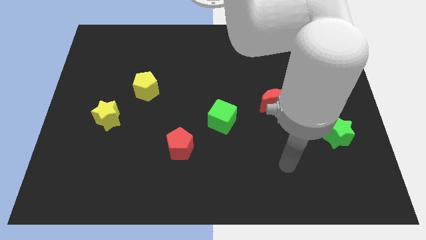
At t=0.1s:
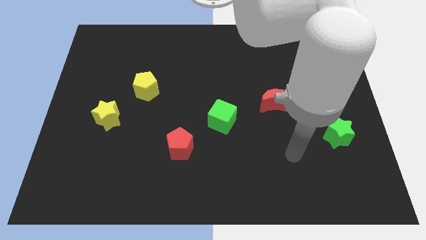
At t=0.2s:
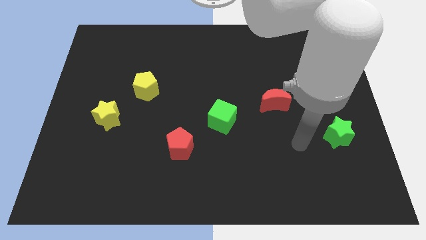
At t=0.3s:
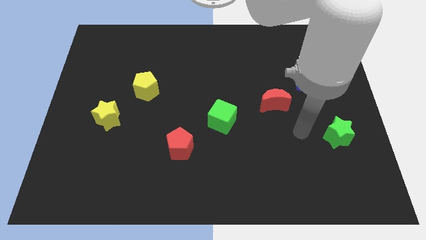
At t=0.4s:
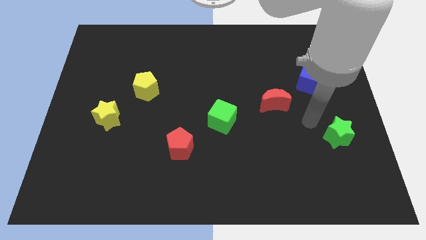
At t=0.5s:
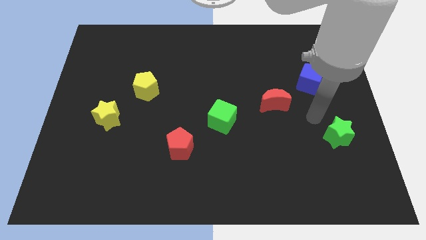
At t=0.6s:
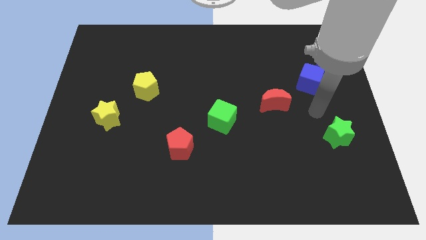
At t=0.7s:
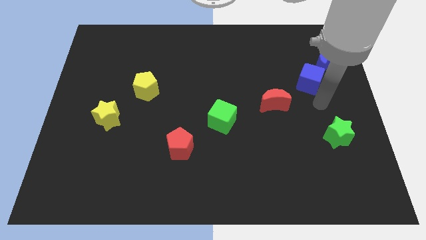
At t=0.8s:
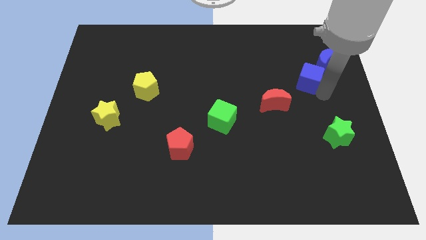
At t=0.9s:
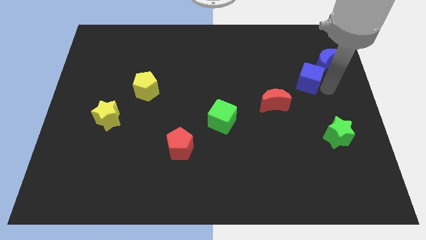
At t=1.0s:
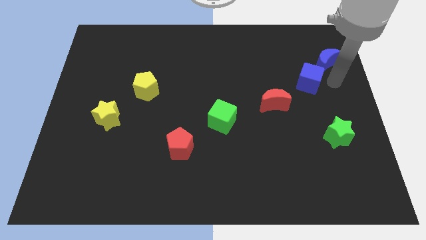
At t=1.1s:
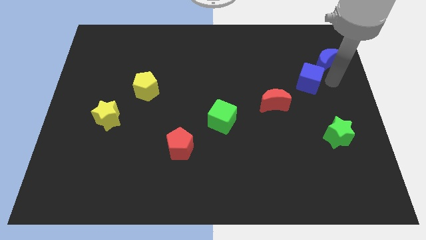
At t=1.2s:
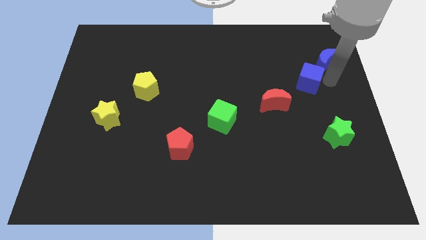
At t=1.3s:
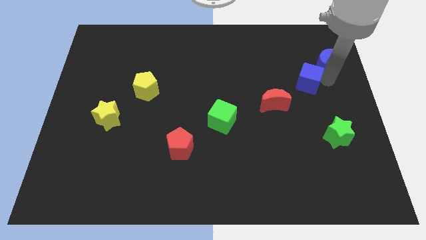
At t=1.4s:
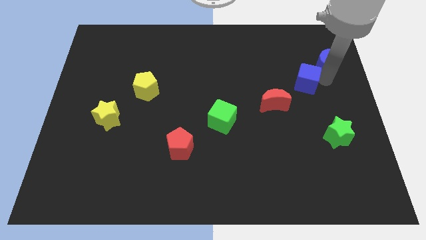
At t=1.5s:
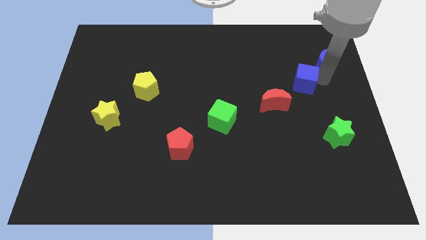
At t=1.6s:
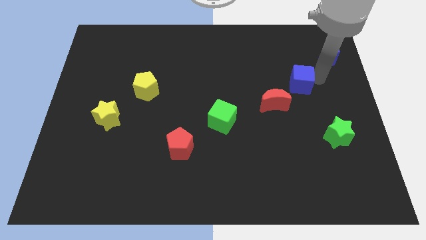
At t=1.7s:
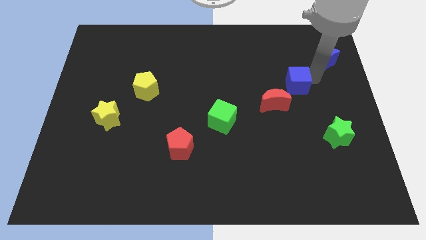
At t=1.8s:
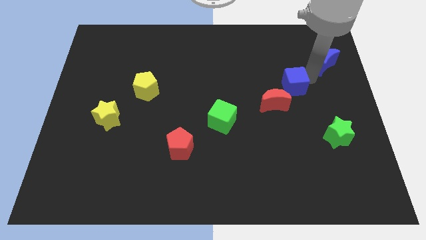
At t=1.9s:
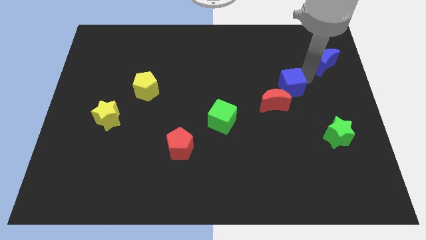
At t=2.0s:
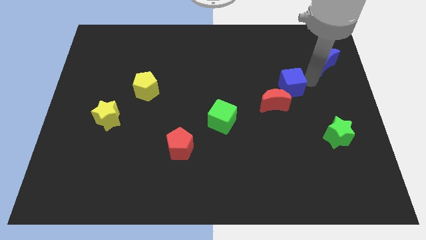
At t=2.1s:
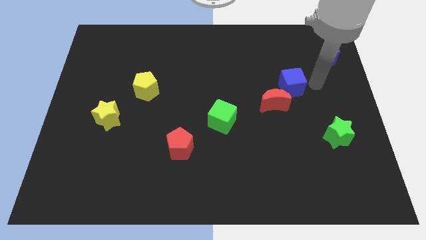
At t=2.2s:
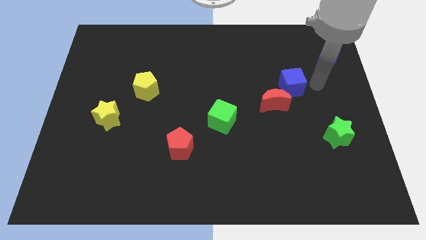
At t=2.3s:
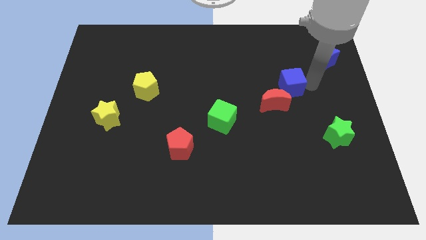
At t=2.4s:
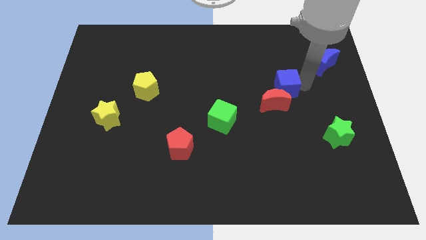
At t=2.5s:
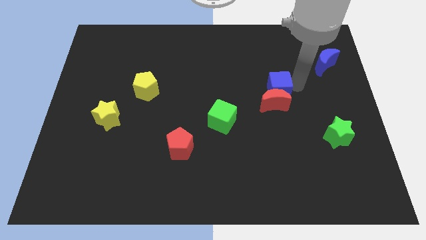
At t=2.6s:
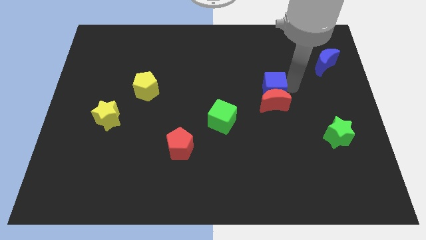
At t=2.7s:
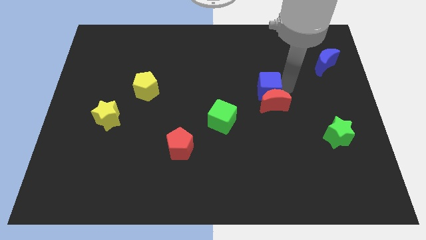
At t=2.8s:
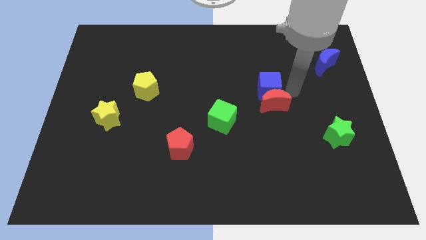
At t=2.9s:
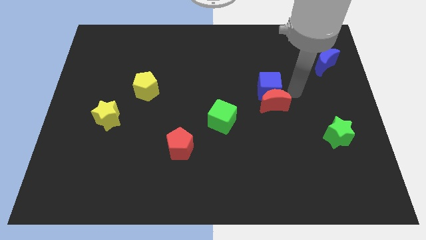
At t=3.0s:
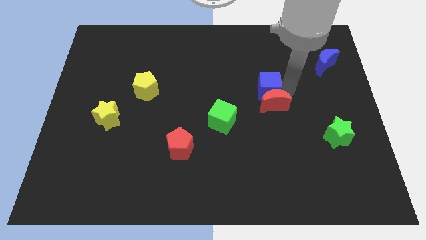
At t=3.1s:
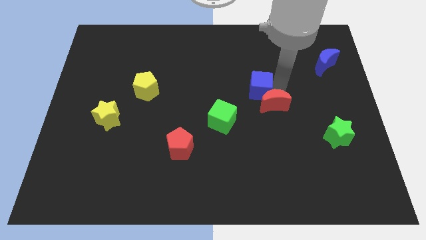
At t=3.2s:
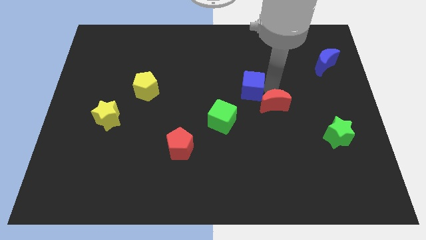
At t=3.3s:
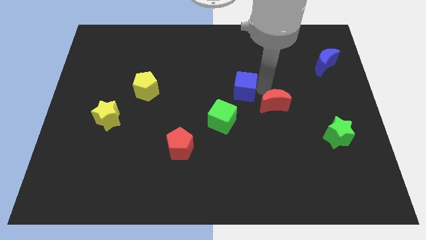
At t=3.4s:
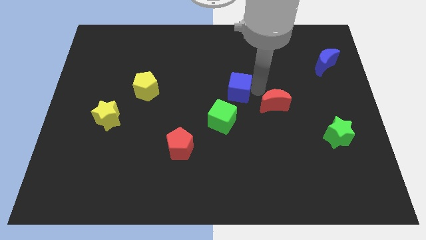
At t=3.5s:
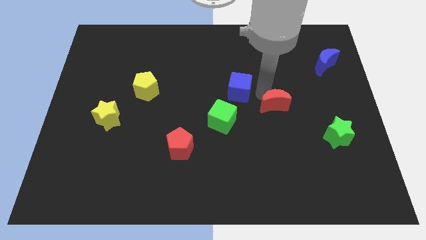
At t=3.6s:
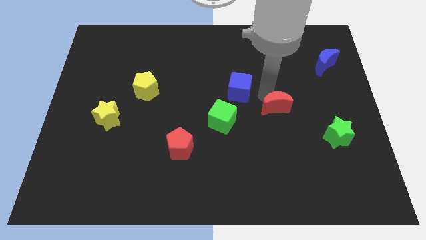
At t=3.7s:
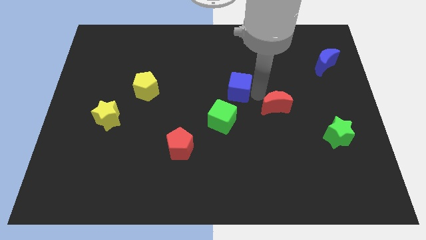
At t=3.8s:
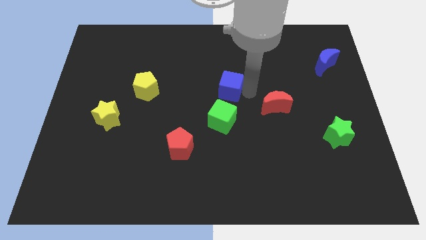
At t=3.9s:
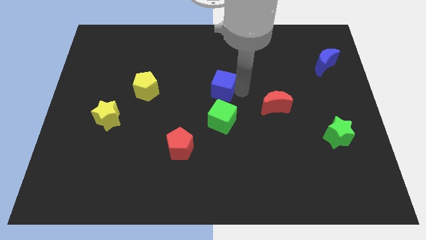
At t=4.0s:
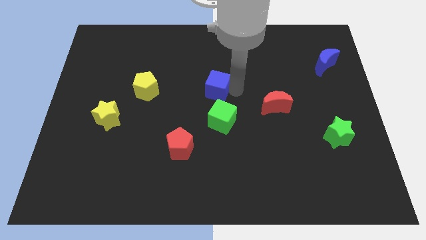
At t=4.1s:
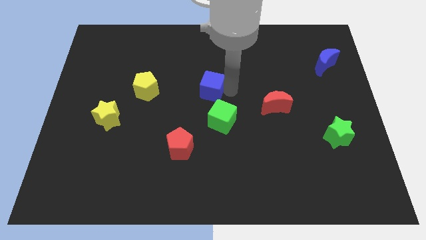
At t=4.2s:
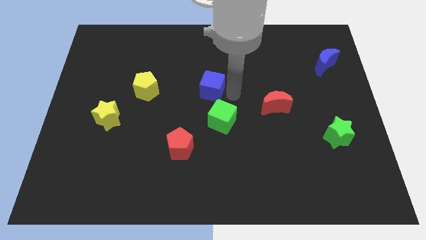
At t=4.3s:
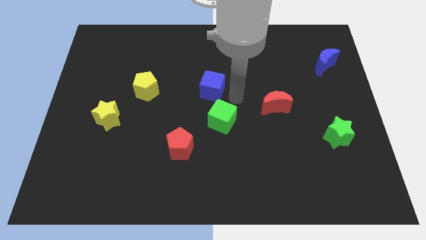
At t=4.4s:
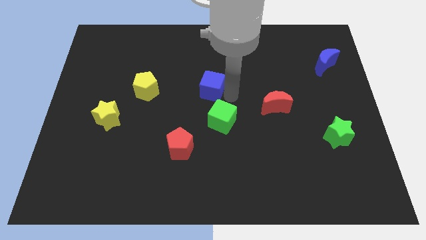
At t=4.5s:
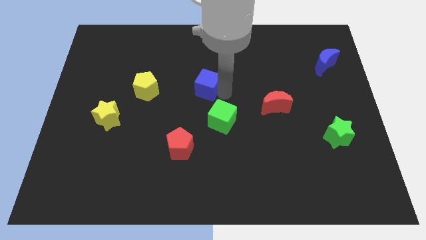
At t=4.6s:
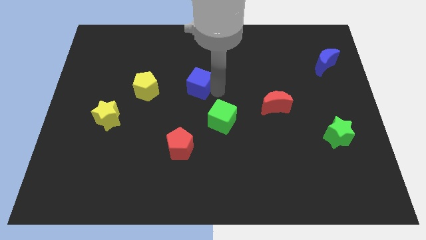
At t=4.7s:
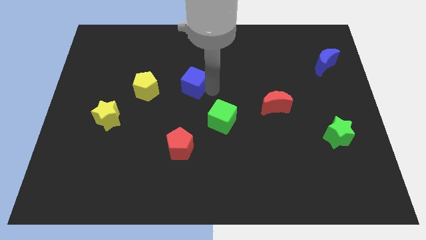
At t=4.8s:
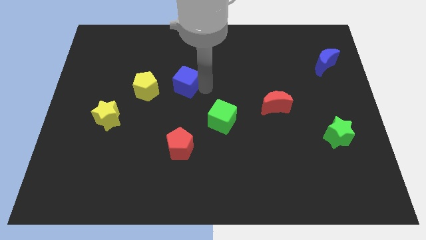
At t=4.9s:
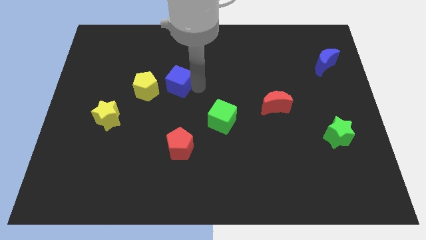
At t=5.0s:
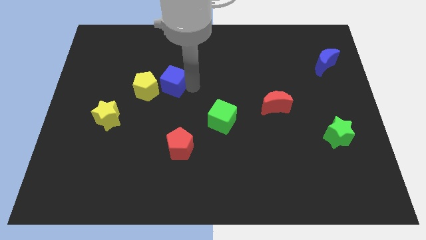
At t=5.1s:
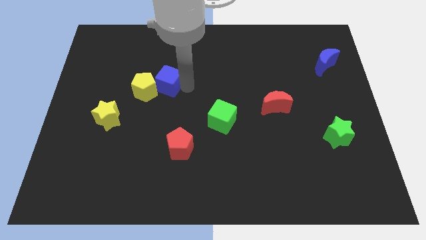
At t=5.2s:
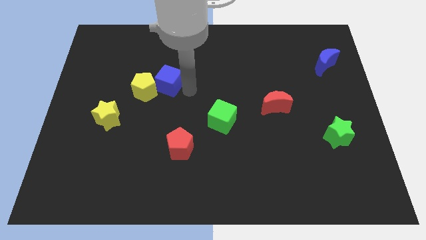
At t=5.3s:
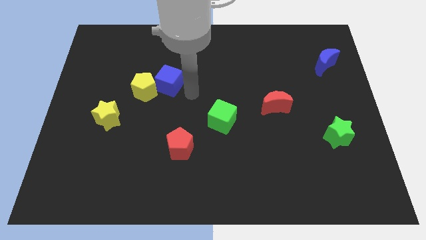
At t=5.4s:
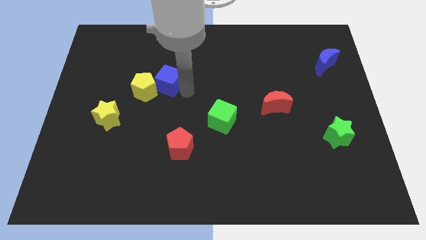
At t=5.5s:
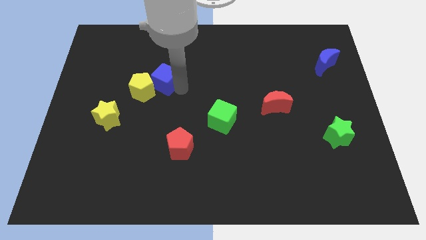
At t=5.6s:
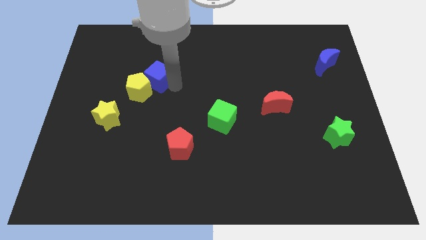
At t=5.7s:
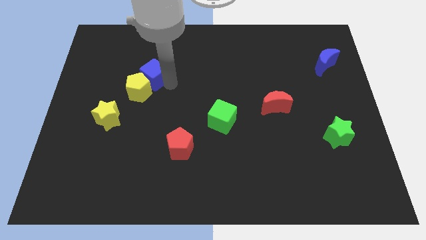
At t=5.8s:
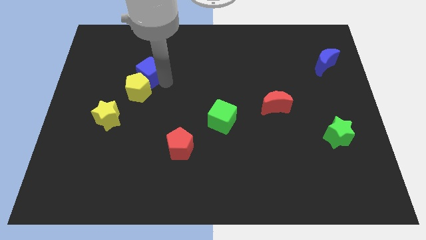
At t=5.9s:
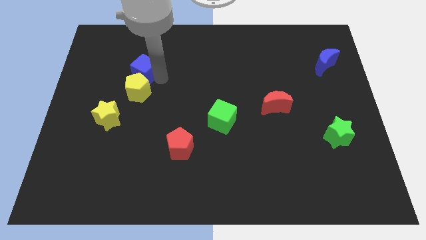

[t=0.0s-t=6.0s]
slide the blue cube diagonally up and to the left of the yellow pentagon

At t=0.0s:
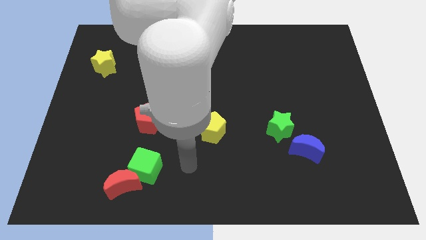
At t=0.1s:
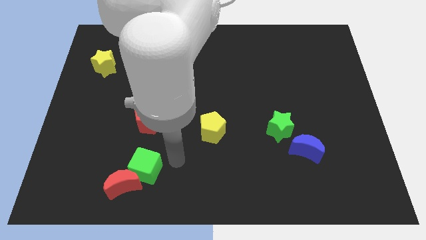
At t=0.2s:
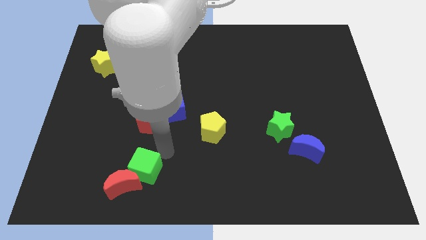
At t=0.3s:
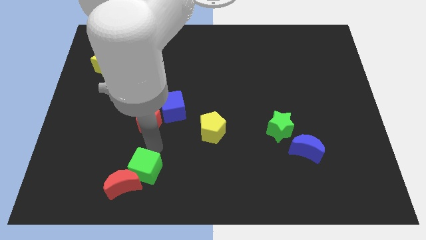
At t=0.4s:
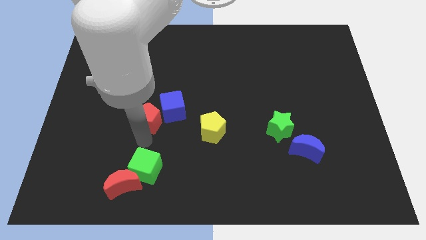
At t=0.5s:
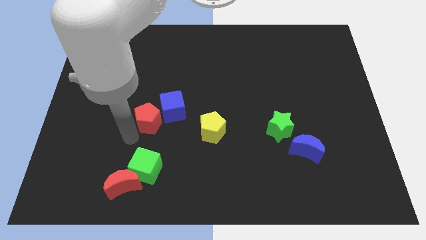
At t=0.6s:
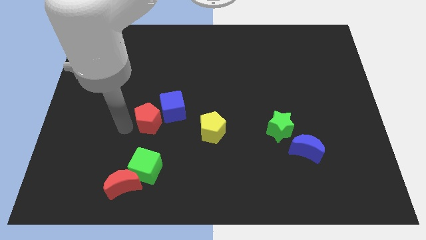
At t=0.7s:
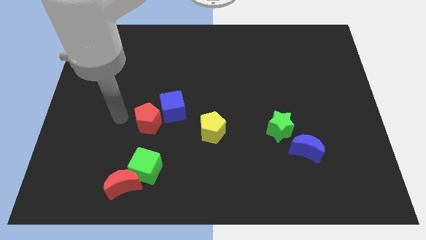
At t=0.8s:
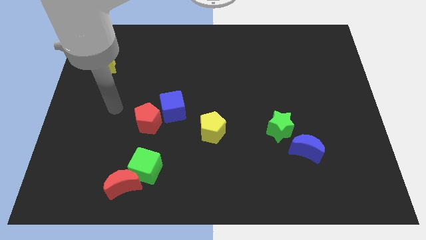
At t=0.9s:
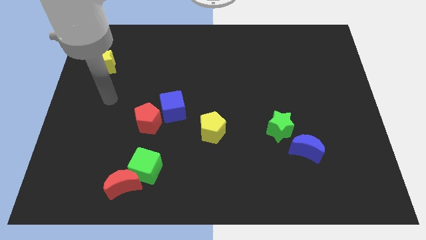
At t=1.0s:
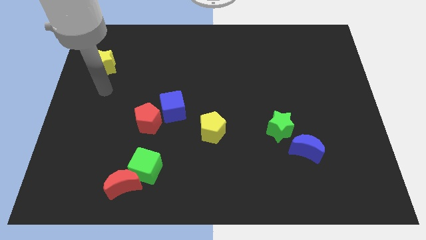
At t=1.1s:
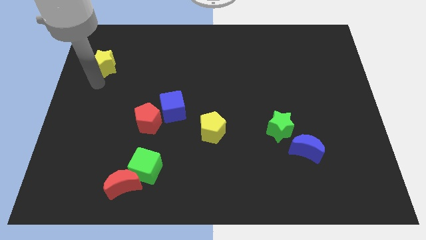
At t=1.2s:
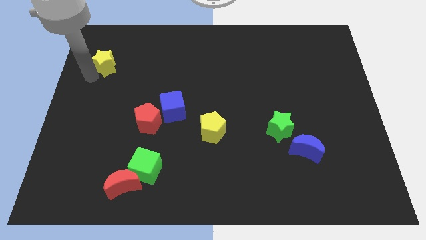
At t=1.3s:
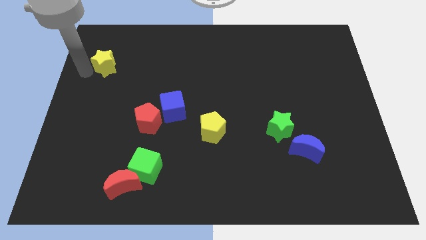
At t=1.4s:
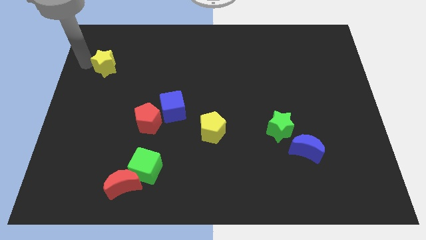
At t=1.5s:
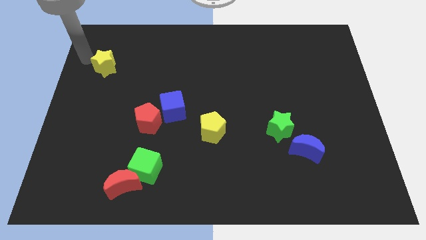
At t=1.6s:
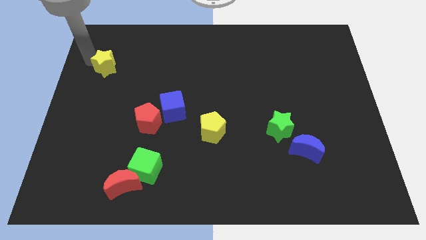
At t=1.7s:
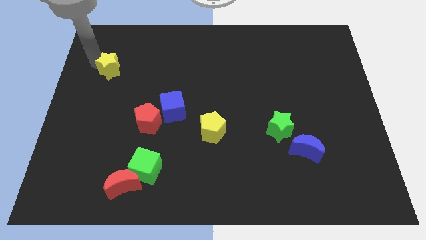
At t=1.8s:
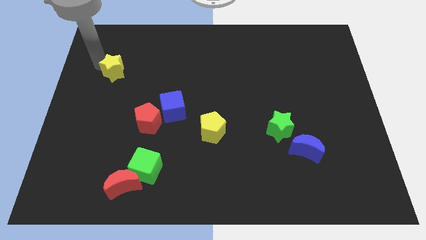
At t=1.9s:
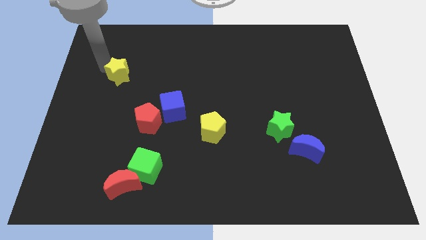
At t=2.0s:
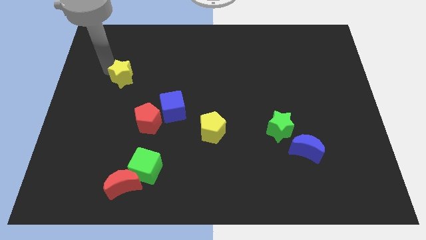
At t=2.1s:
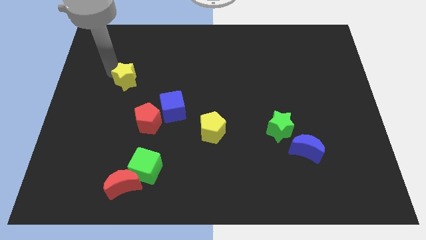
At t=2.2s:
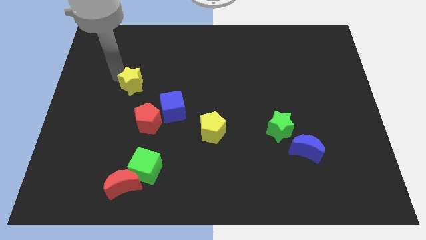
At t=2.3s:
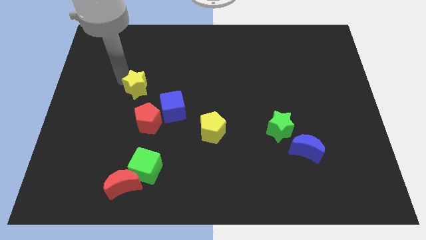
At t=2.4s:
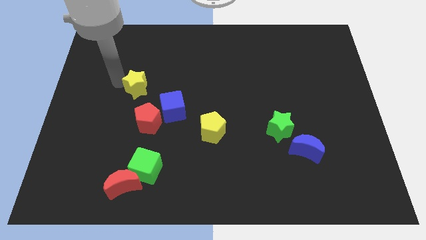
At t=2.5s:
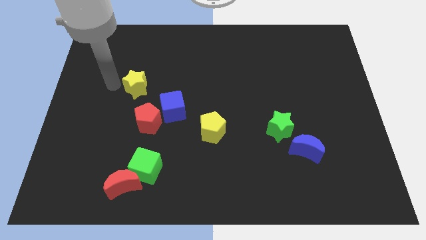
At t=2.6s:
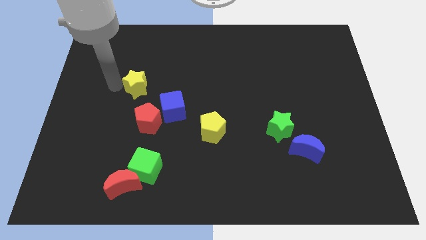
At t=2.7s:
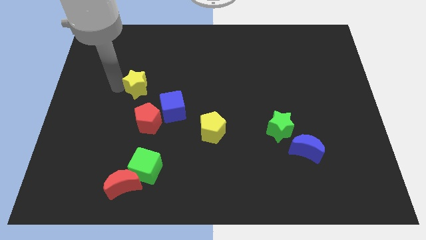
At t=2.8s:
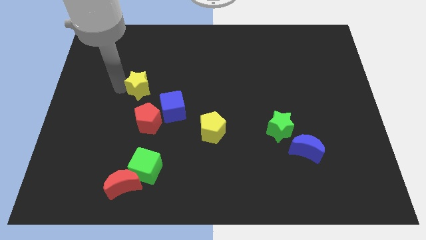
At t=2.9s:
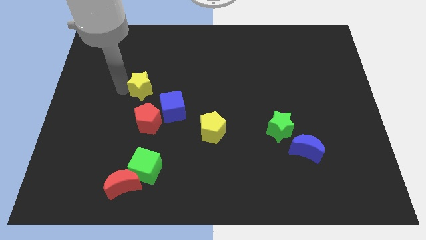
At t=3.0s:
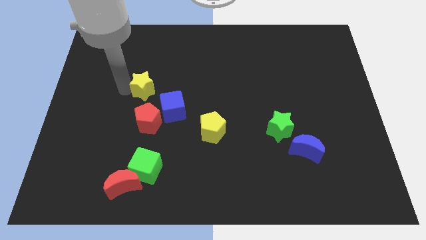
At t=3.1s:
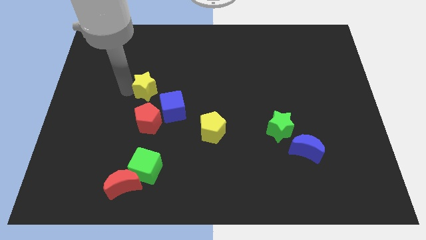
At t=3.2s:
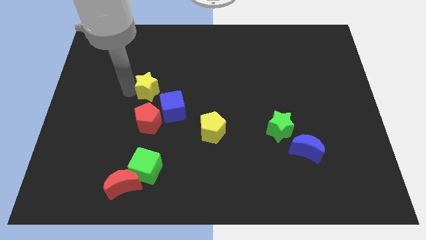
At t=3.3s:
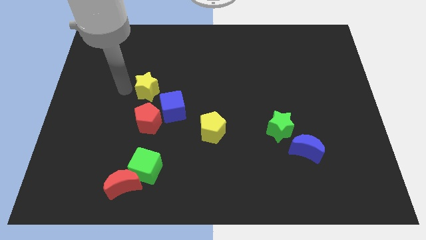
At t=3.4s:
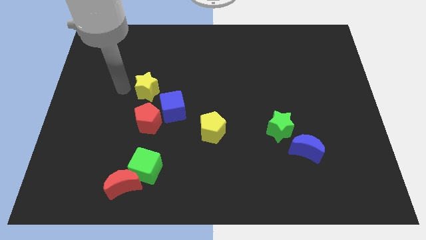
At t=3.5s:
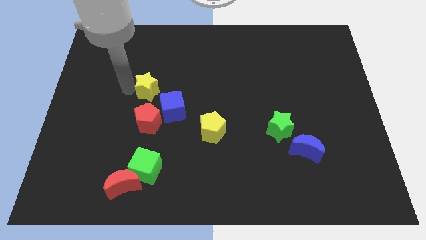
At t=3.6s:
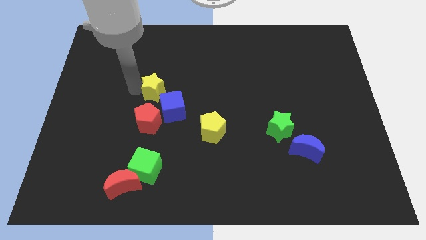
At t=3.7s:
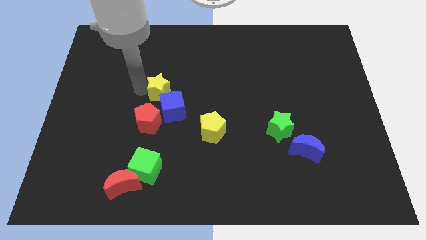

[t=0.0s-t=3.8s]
push the yellow star to the top right side of the red pentagon
